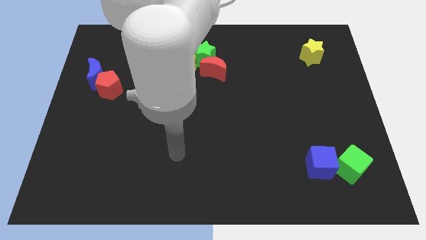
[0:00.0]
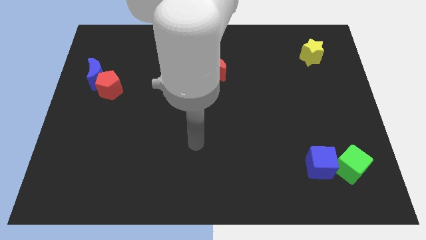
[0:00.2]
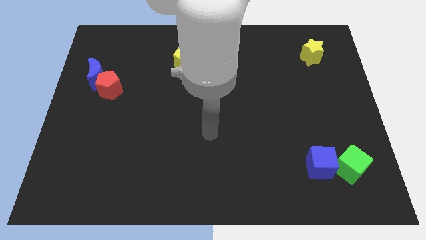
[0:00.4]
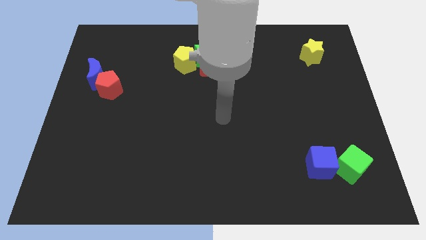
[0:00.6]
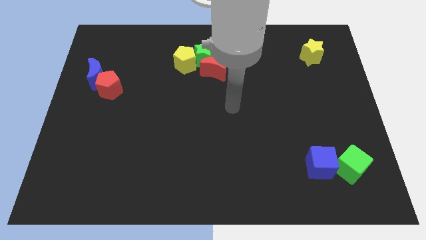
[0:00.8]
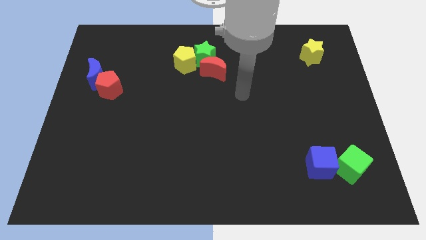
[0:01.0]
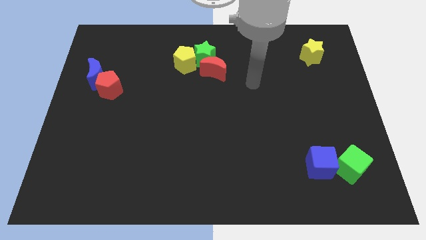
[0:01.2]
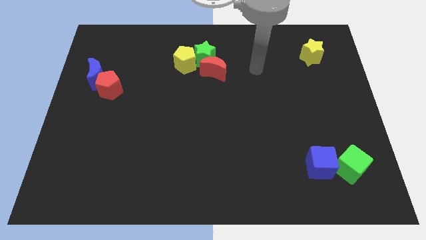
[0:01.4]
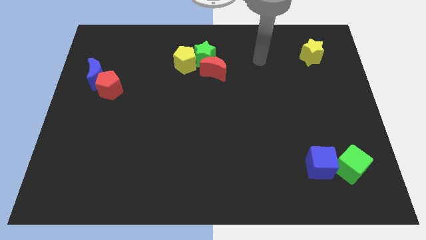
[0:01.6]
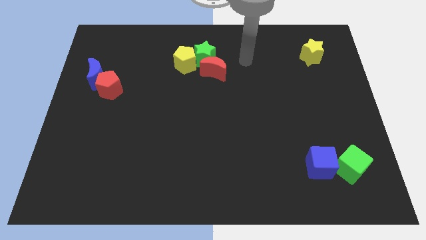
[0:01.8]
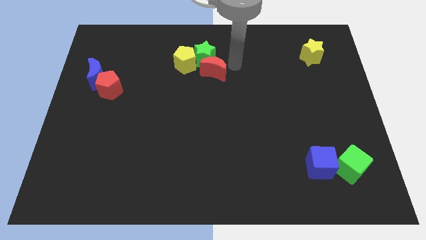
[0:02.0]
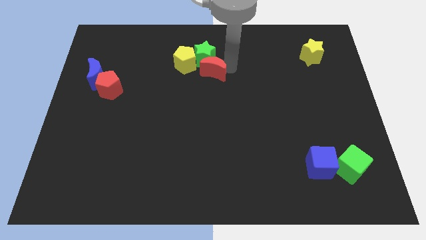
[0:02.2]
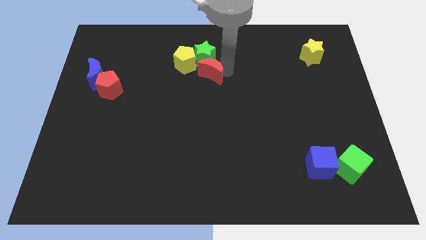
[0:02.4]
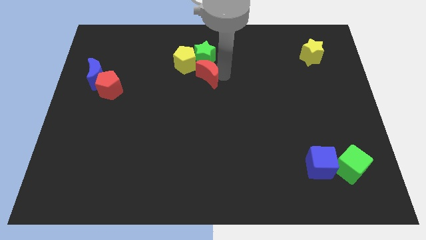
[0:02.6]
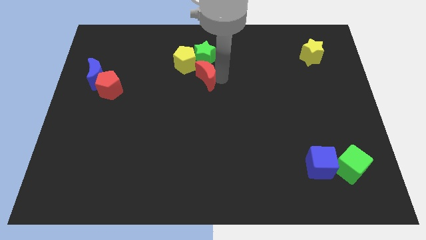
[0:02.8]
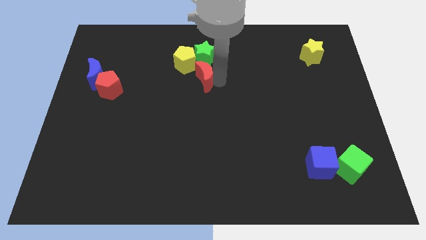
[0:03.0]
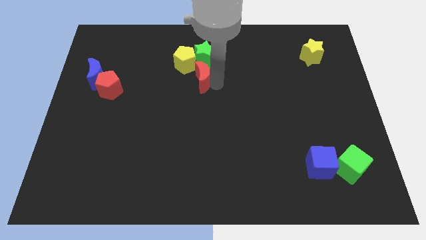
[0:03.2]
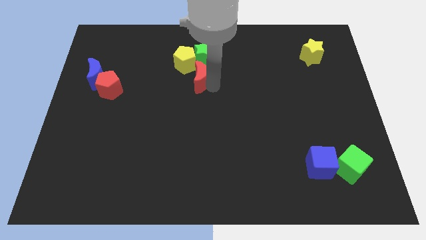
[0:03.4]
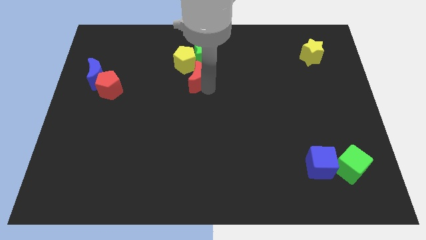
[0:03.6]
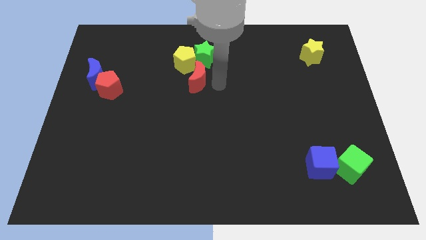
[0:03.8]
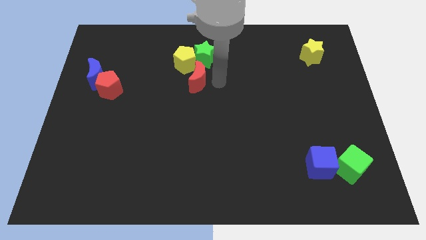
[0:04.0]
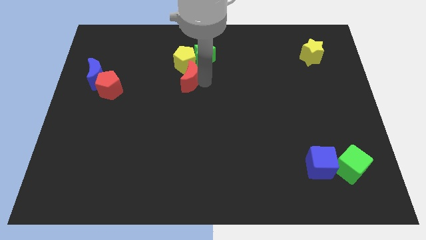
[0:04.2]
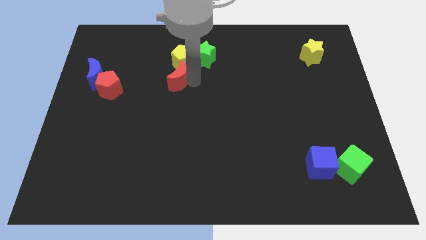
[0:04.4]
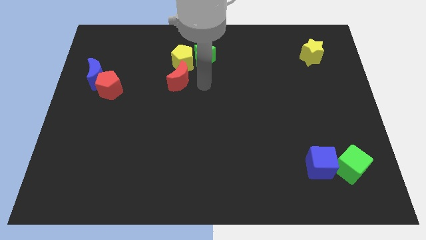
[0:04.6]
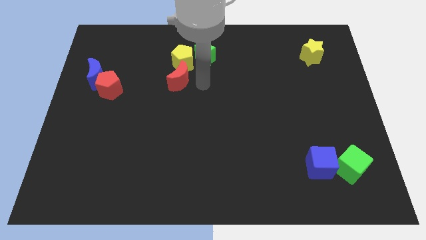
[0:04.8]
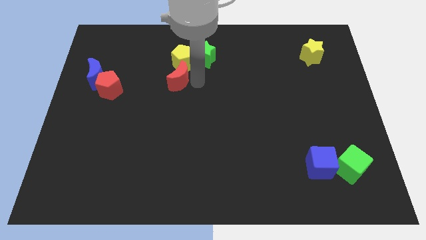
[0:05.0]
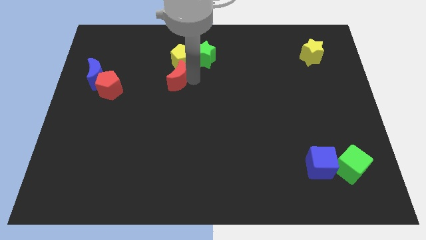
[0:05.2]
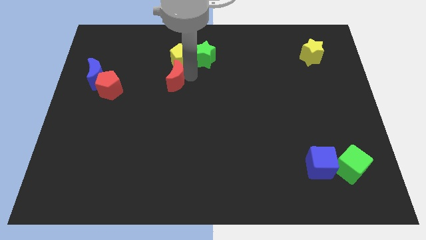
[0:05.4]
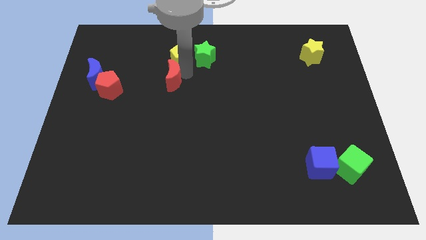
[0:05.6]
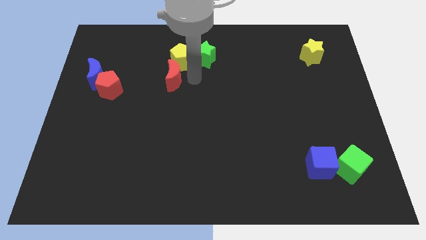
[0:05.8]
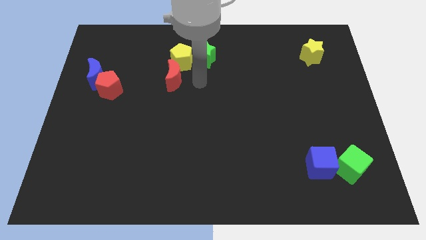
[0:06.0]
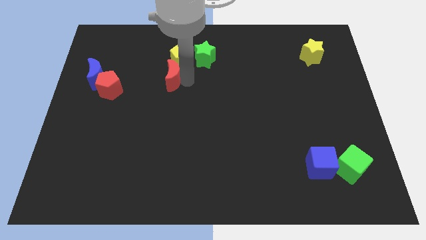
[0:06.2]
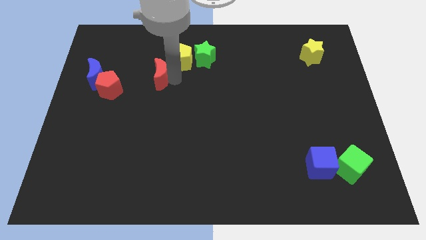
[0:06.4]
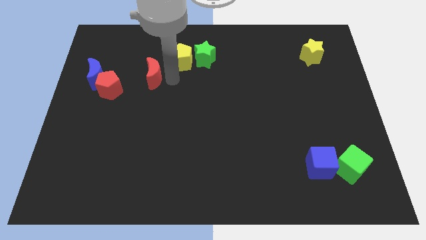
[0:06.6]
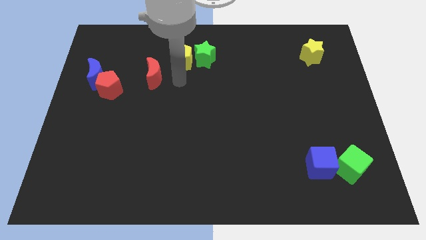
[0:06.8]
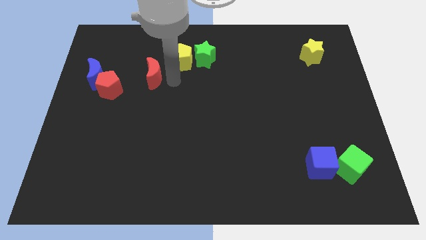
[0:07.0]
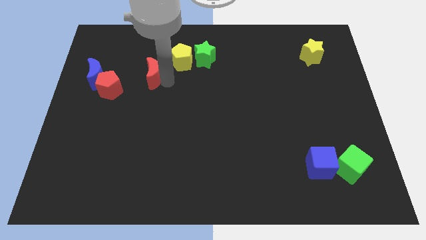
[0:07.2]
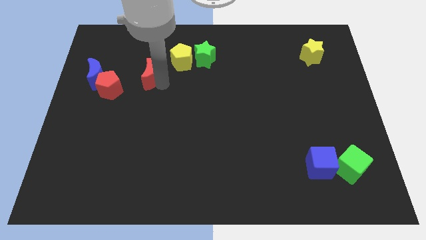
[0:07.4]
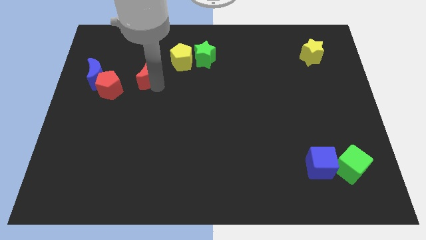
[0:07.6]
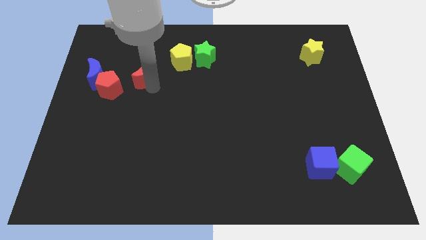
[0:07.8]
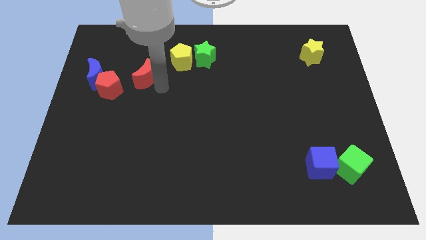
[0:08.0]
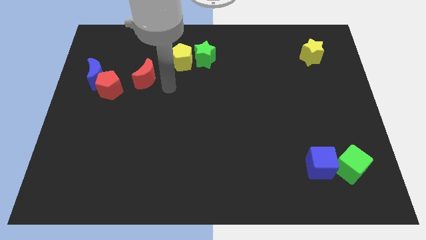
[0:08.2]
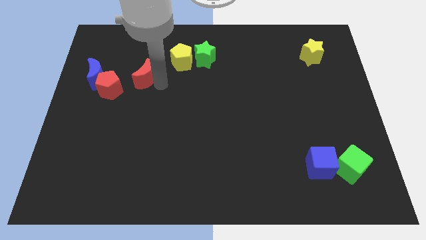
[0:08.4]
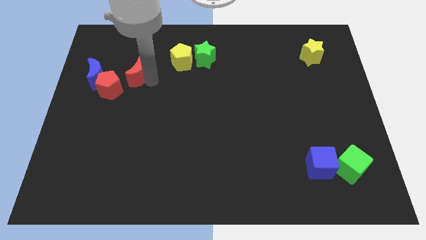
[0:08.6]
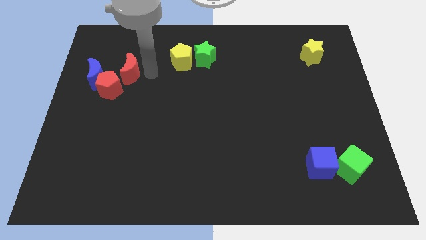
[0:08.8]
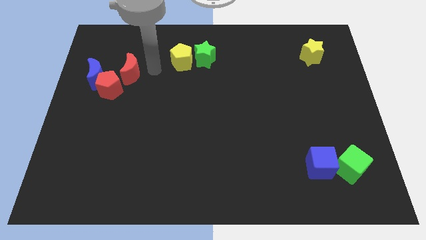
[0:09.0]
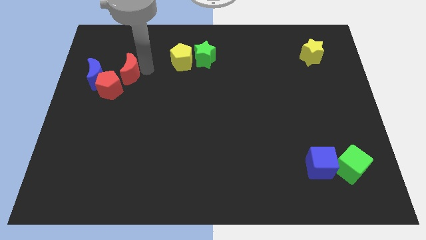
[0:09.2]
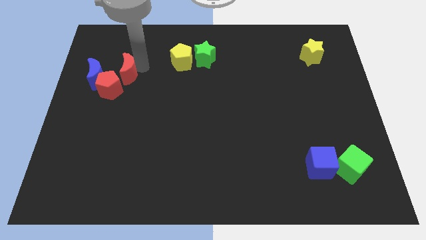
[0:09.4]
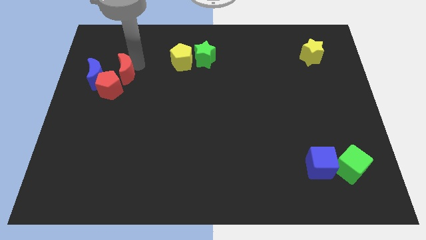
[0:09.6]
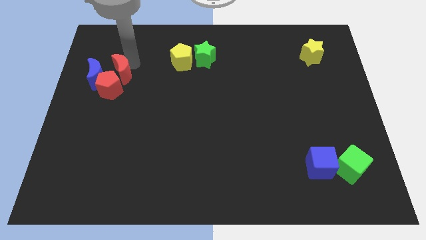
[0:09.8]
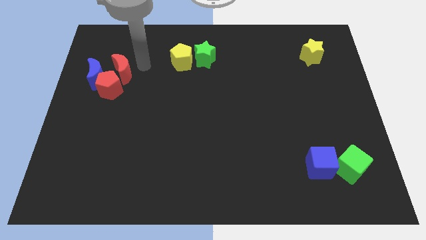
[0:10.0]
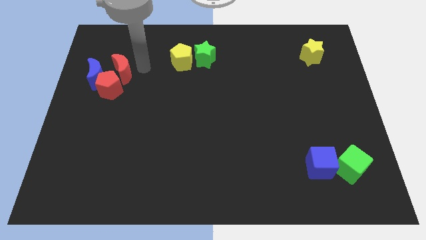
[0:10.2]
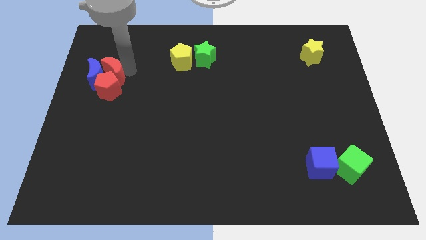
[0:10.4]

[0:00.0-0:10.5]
push the red moon next to the blue moon

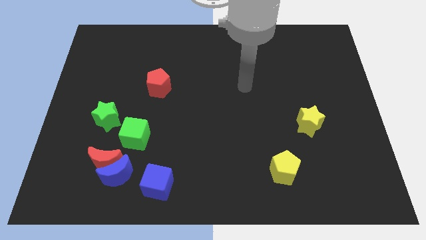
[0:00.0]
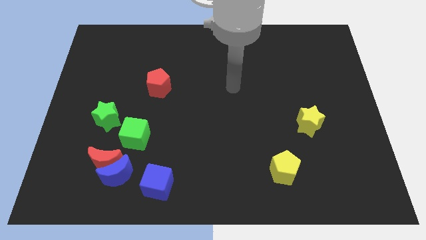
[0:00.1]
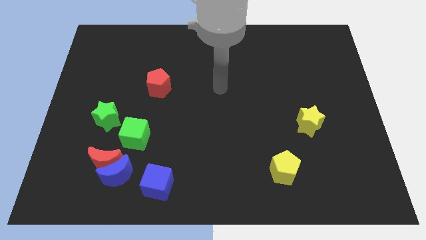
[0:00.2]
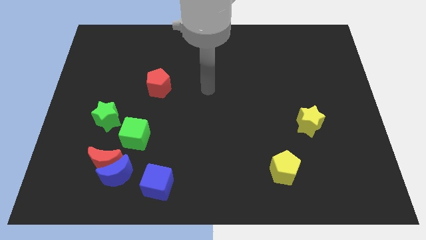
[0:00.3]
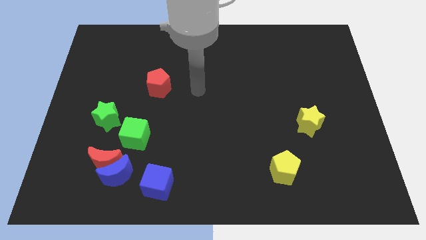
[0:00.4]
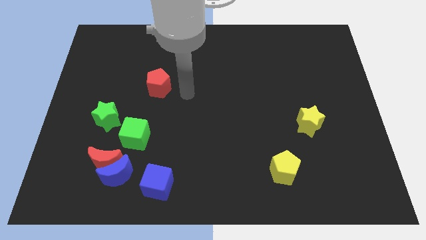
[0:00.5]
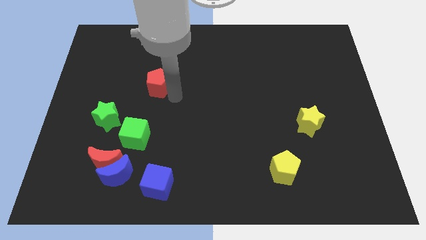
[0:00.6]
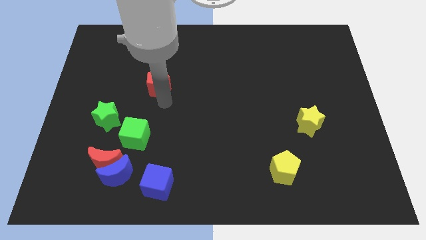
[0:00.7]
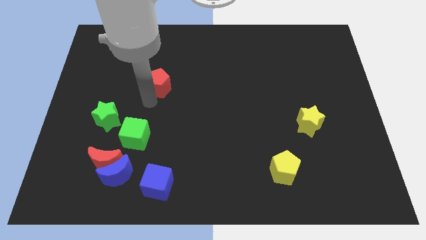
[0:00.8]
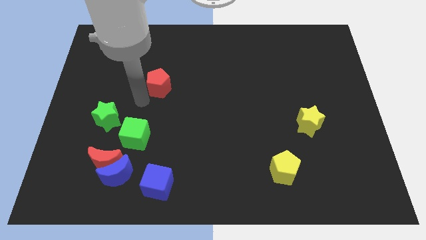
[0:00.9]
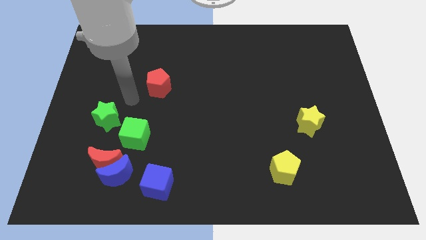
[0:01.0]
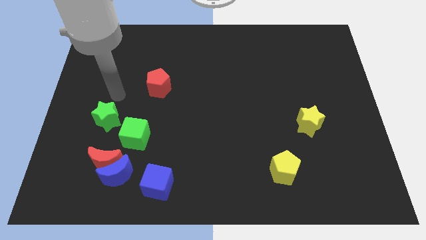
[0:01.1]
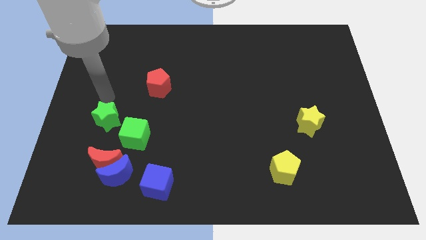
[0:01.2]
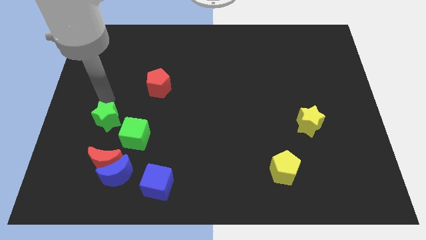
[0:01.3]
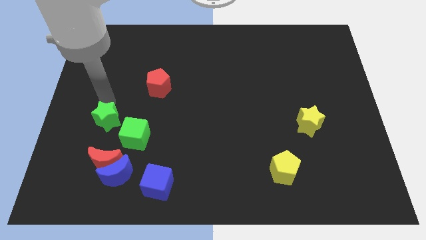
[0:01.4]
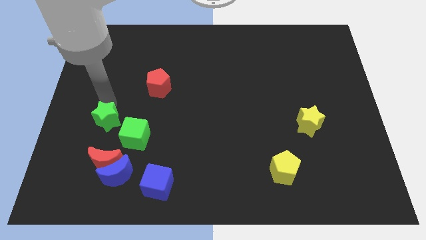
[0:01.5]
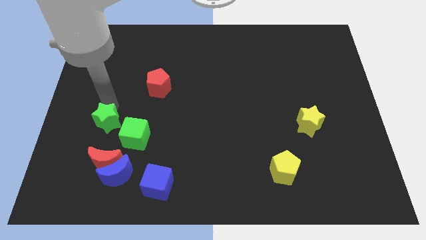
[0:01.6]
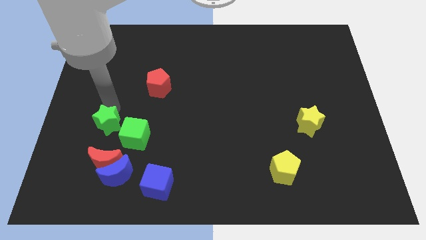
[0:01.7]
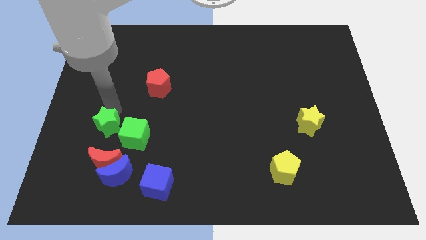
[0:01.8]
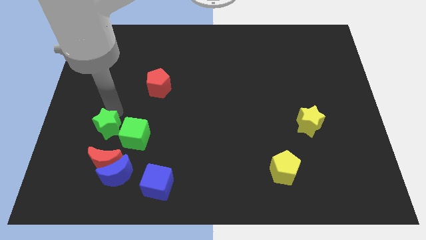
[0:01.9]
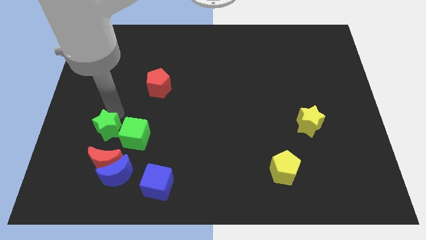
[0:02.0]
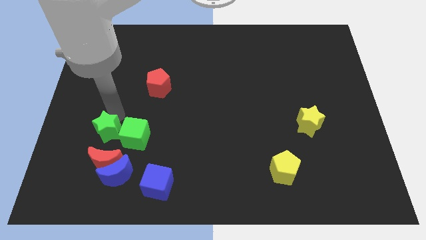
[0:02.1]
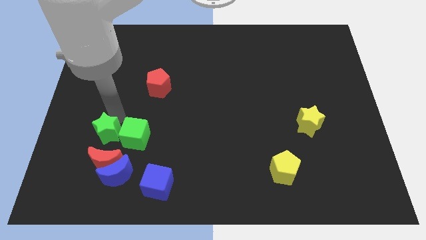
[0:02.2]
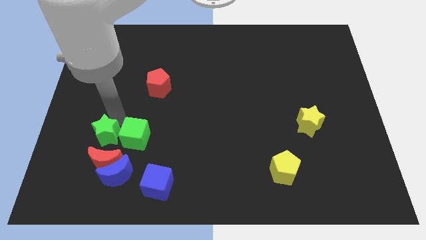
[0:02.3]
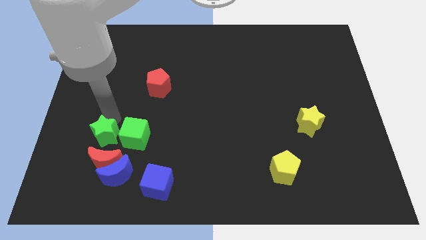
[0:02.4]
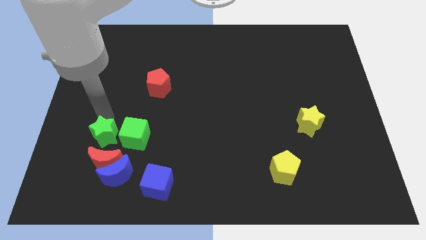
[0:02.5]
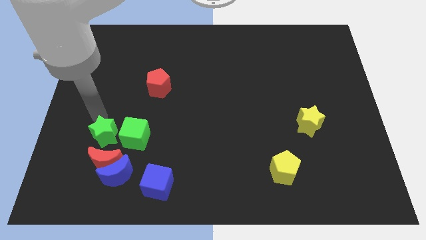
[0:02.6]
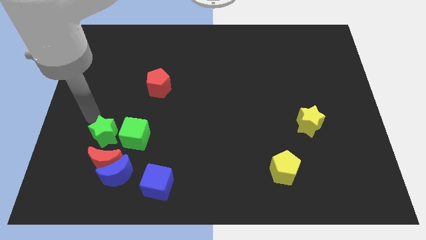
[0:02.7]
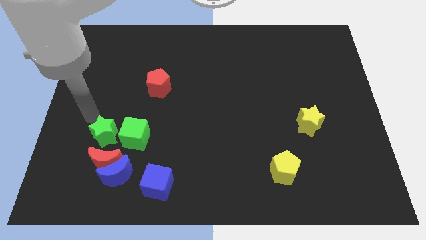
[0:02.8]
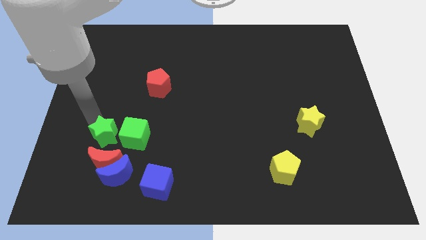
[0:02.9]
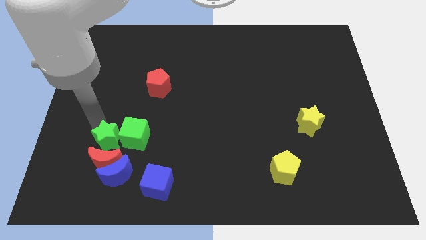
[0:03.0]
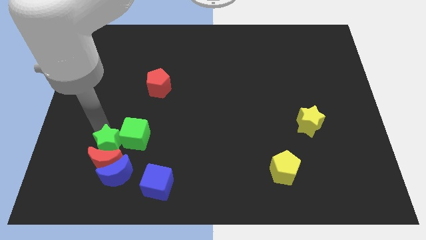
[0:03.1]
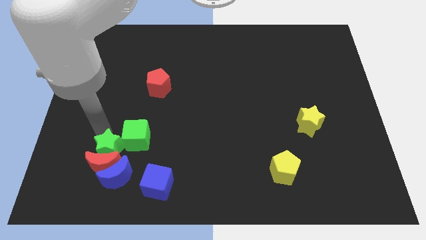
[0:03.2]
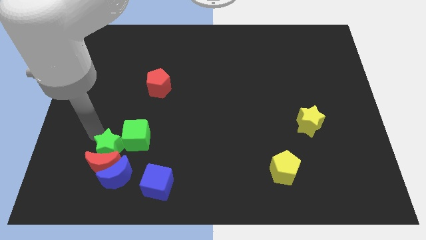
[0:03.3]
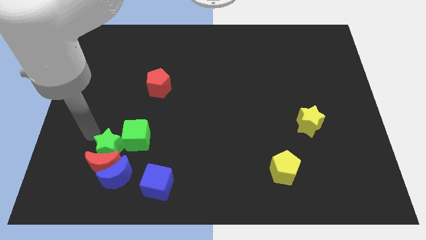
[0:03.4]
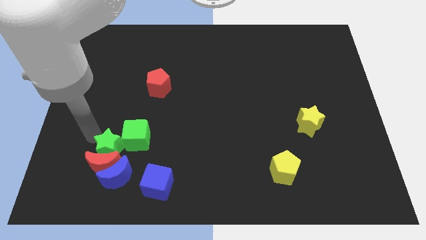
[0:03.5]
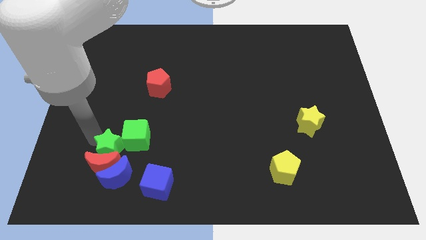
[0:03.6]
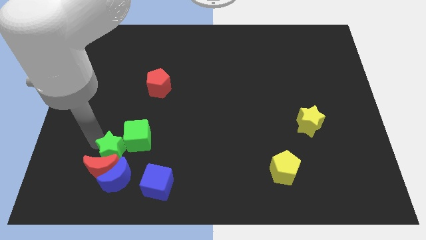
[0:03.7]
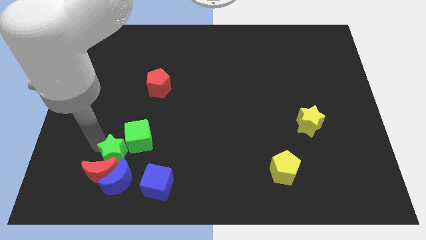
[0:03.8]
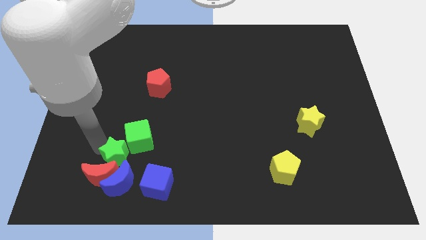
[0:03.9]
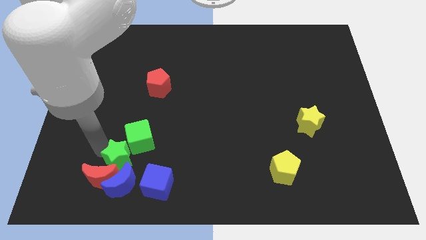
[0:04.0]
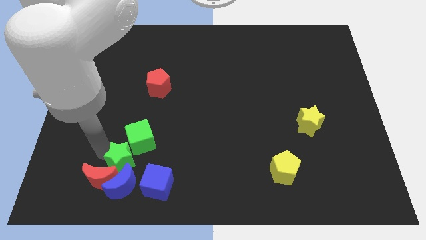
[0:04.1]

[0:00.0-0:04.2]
slide the green star close to the blue moon
